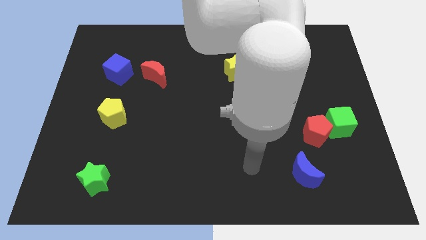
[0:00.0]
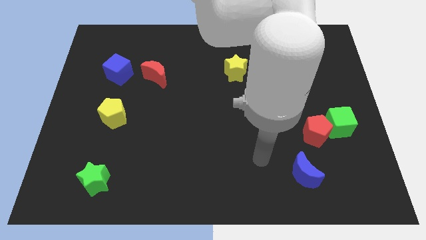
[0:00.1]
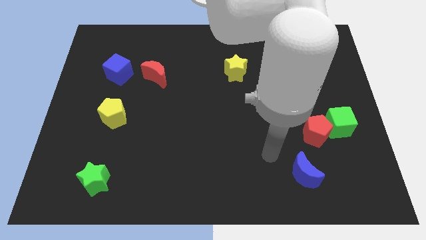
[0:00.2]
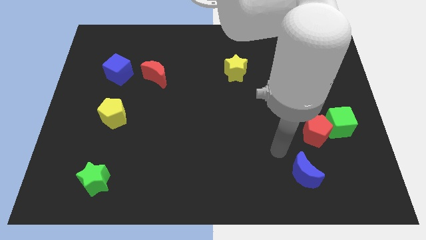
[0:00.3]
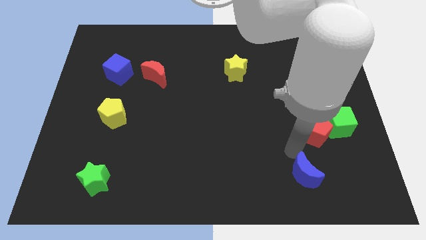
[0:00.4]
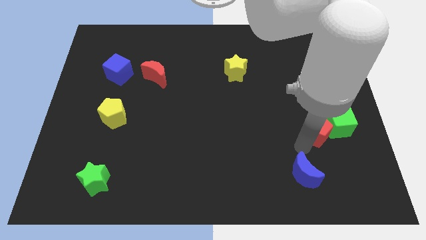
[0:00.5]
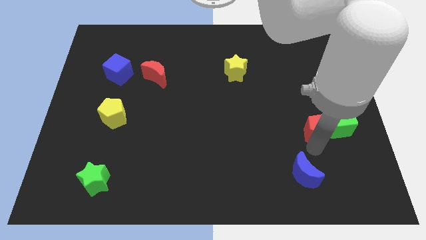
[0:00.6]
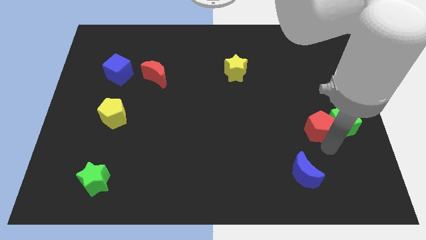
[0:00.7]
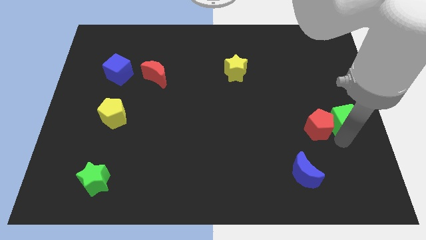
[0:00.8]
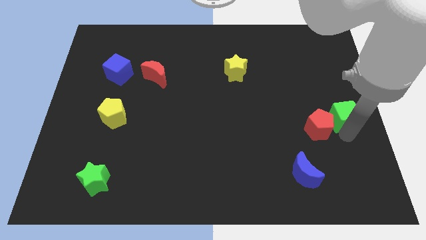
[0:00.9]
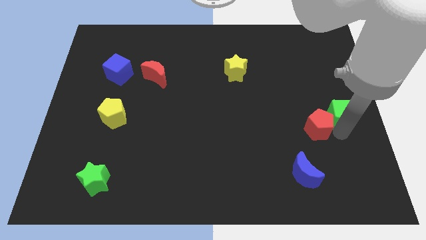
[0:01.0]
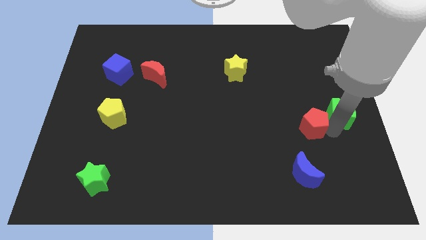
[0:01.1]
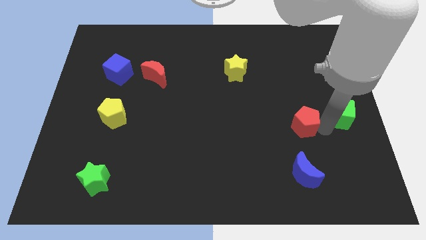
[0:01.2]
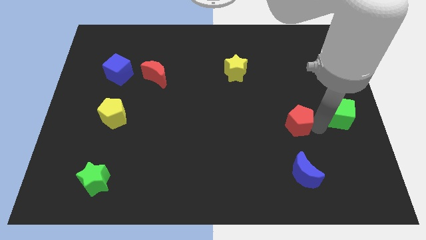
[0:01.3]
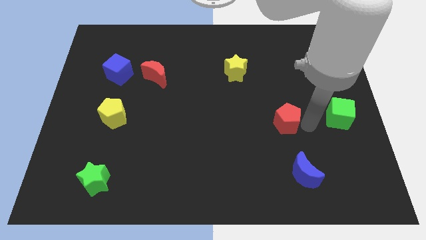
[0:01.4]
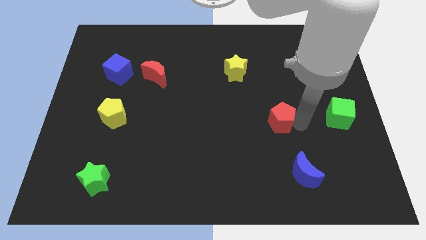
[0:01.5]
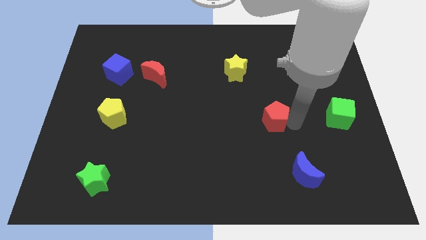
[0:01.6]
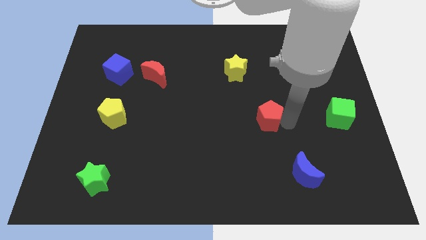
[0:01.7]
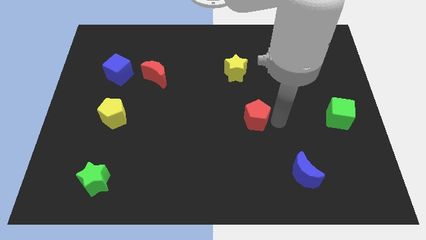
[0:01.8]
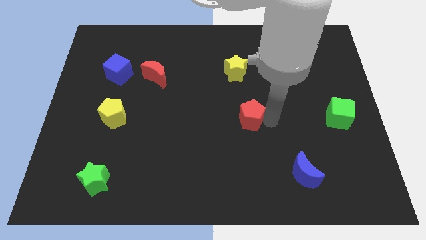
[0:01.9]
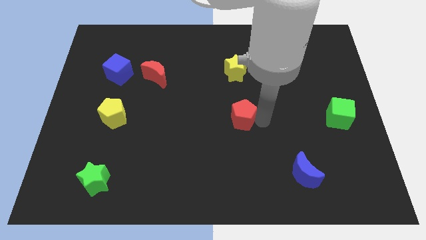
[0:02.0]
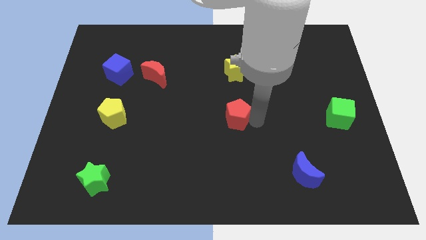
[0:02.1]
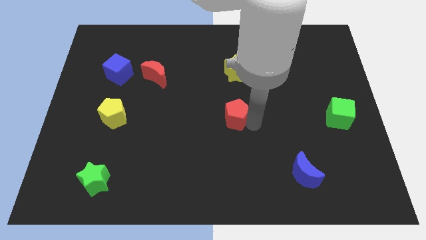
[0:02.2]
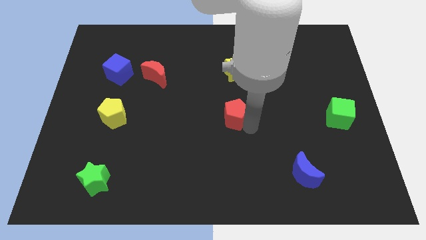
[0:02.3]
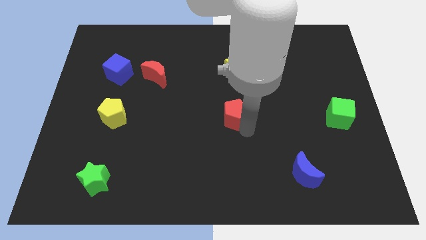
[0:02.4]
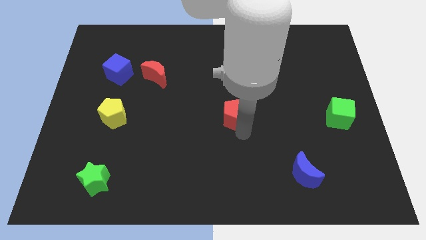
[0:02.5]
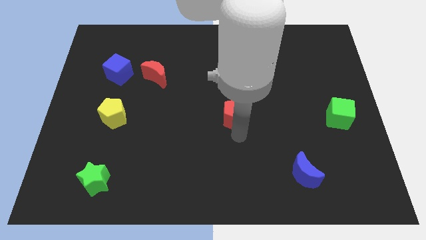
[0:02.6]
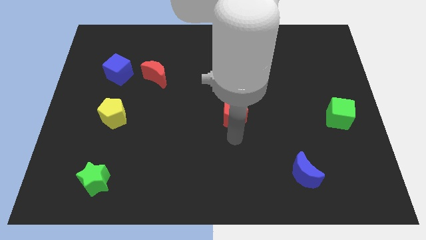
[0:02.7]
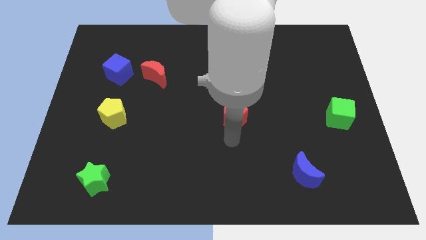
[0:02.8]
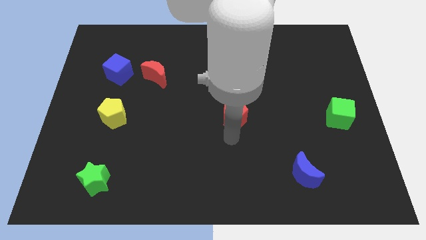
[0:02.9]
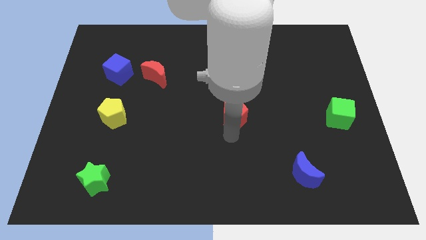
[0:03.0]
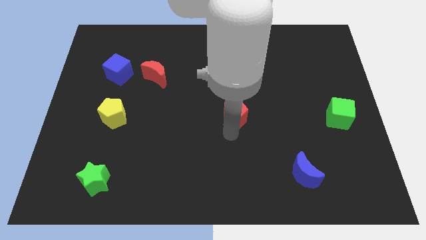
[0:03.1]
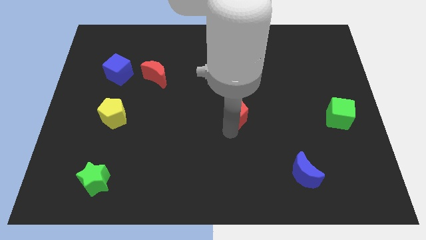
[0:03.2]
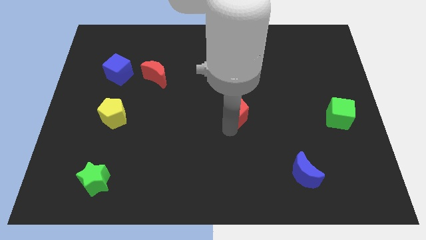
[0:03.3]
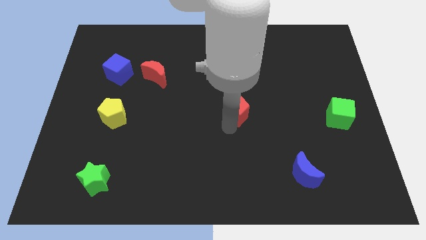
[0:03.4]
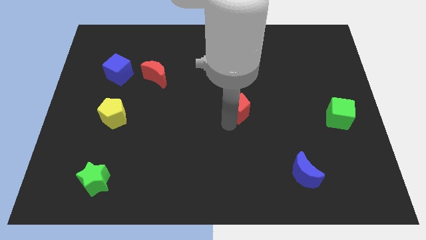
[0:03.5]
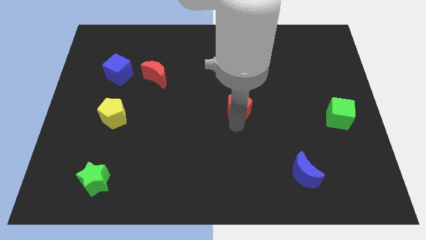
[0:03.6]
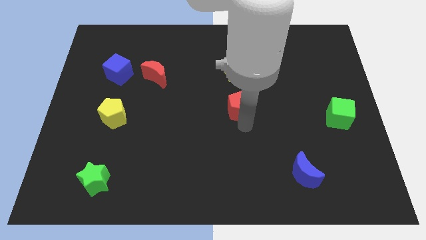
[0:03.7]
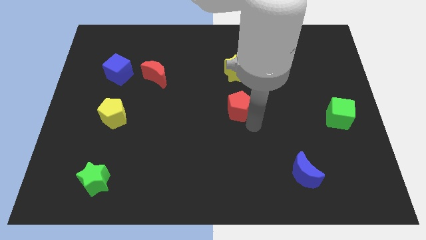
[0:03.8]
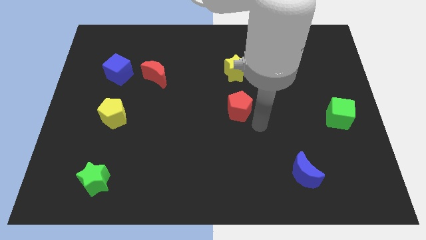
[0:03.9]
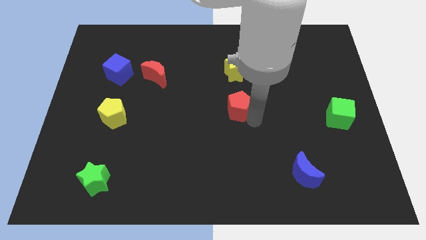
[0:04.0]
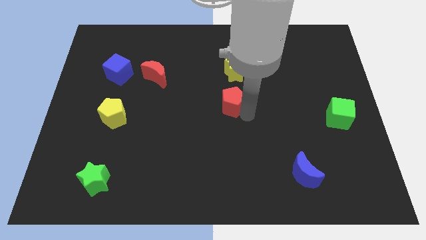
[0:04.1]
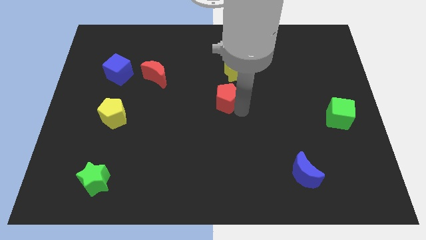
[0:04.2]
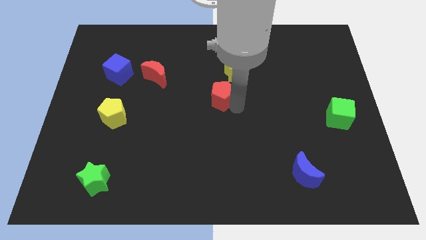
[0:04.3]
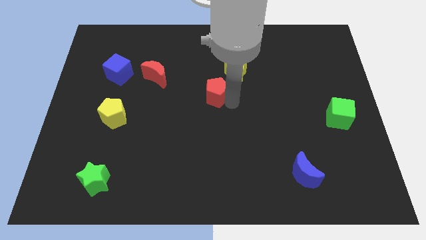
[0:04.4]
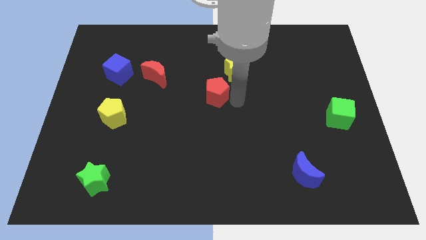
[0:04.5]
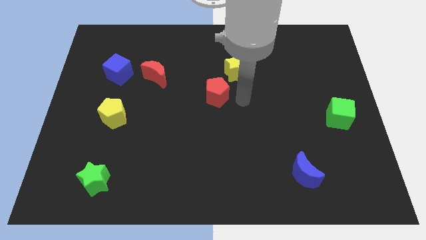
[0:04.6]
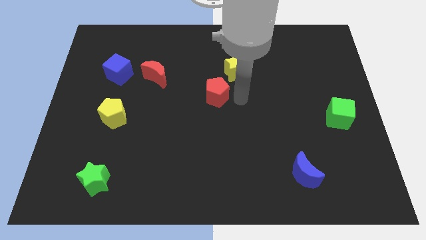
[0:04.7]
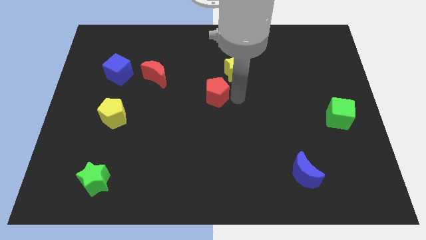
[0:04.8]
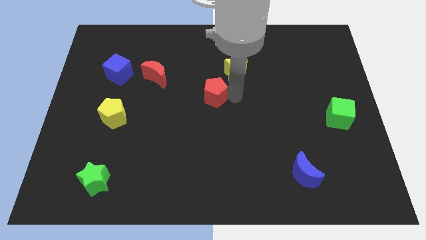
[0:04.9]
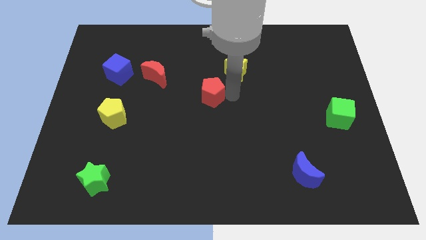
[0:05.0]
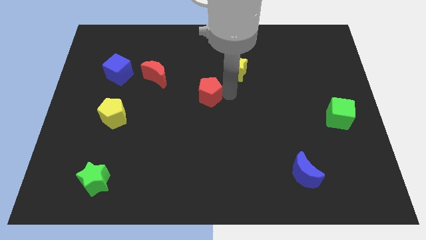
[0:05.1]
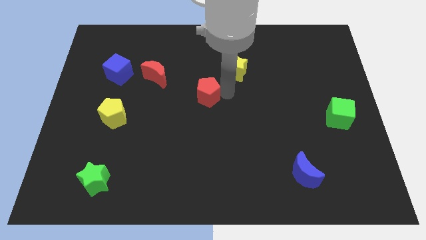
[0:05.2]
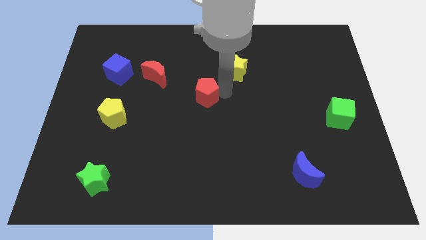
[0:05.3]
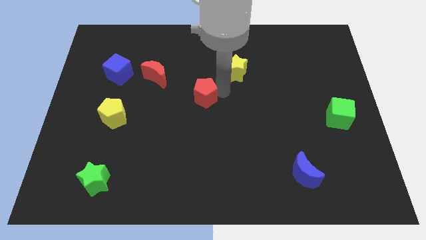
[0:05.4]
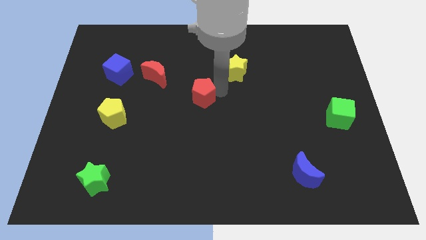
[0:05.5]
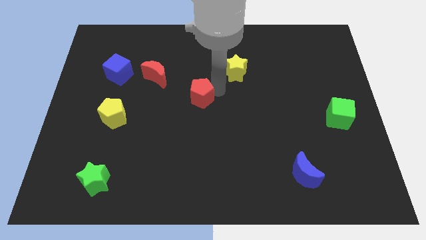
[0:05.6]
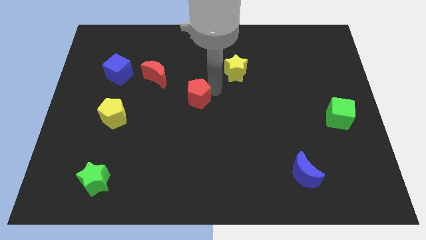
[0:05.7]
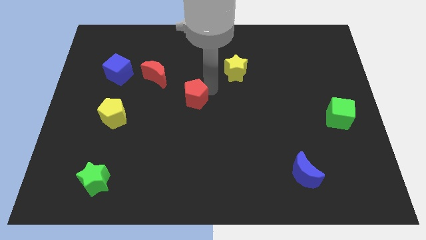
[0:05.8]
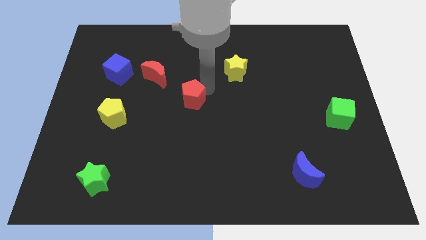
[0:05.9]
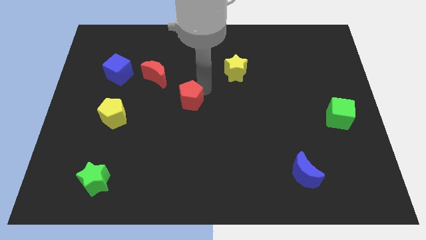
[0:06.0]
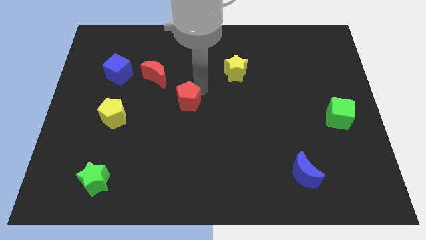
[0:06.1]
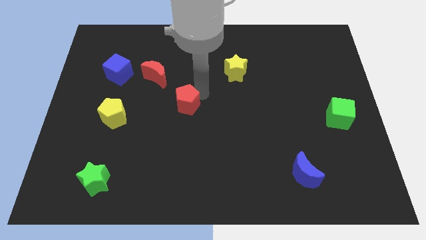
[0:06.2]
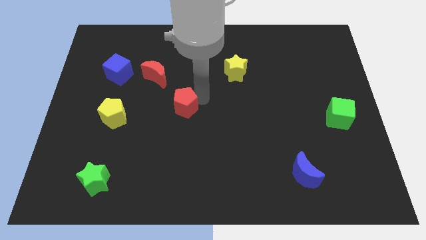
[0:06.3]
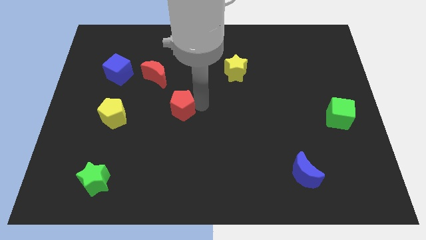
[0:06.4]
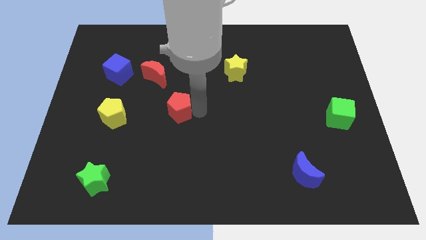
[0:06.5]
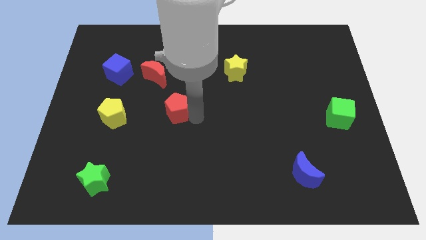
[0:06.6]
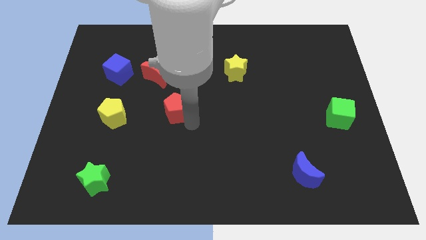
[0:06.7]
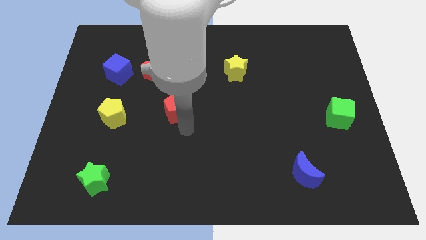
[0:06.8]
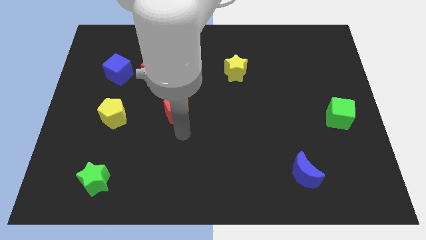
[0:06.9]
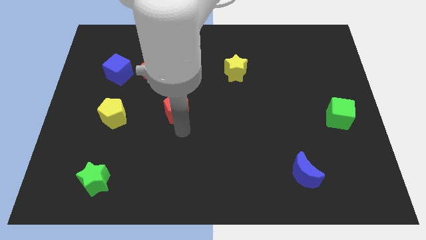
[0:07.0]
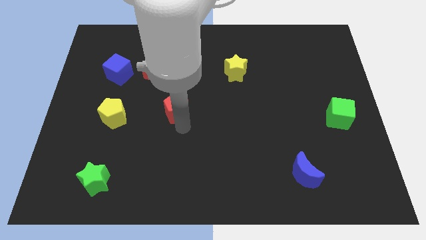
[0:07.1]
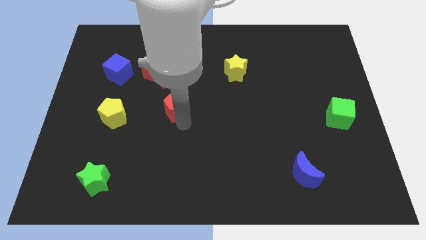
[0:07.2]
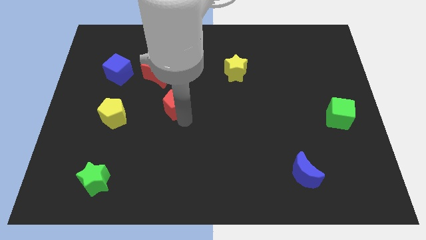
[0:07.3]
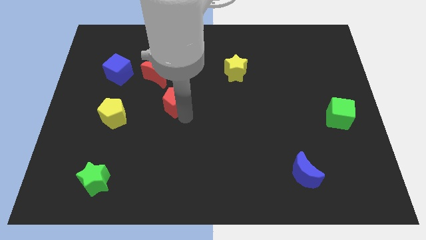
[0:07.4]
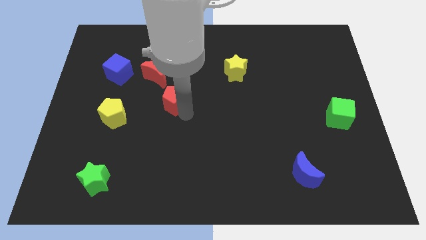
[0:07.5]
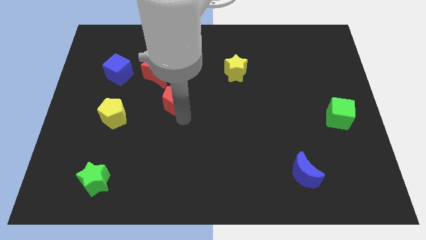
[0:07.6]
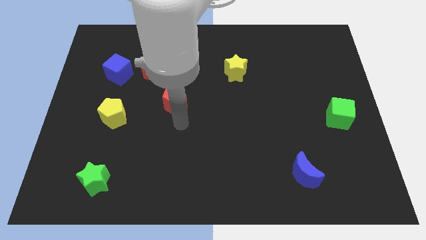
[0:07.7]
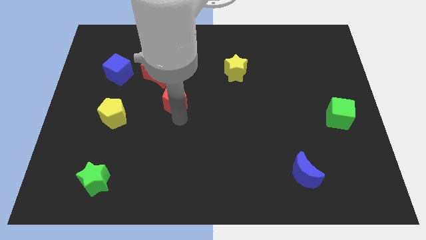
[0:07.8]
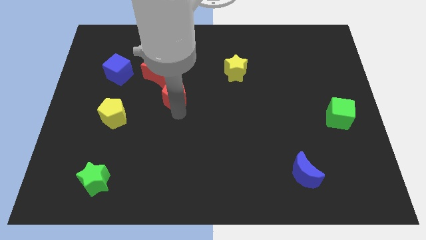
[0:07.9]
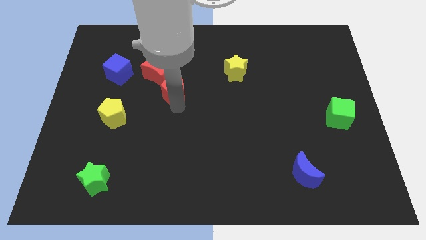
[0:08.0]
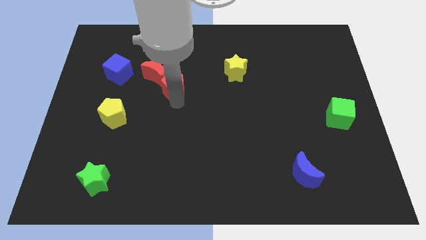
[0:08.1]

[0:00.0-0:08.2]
put the red pentagon to the red moon
